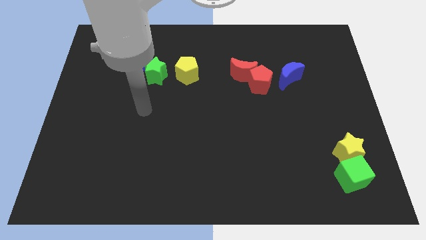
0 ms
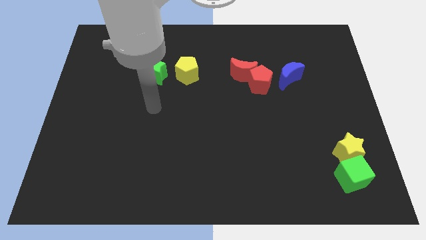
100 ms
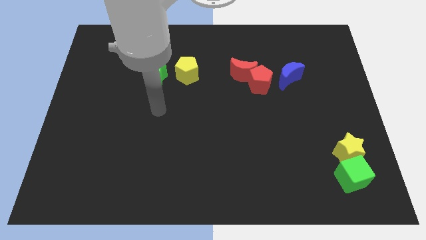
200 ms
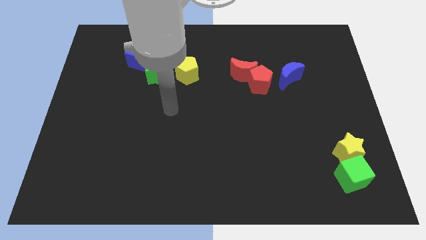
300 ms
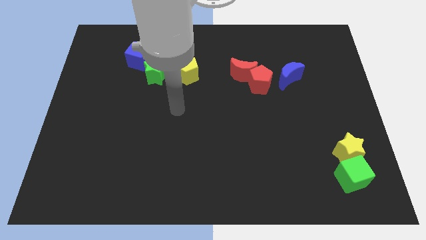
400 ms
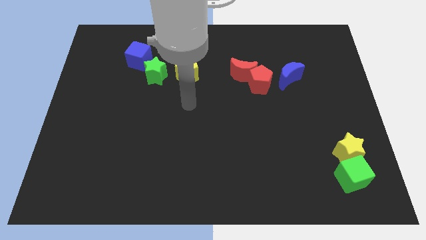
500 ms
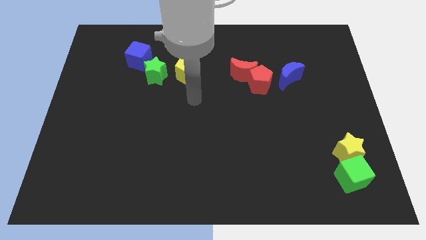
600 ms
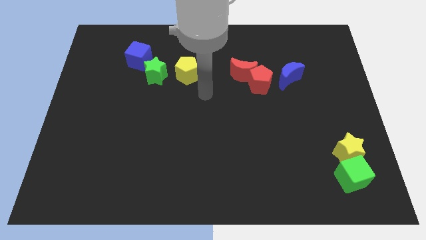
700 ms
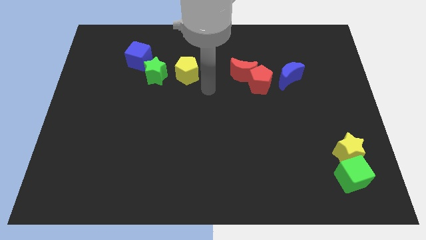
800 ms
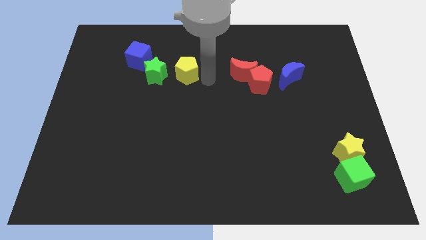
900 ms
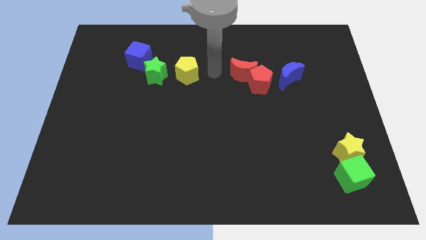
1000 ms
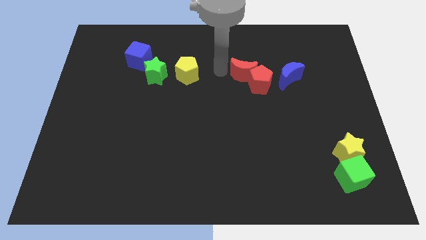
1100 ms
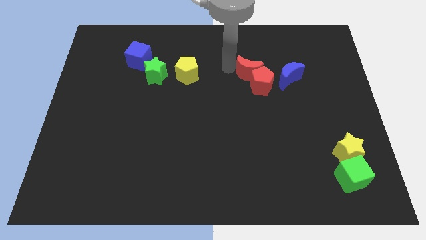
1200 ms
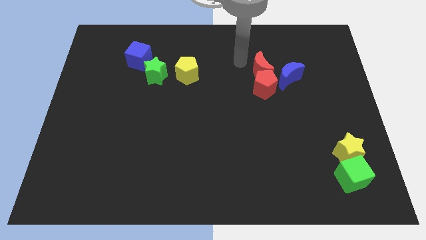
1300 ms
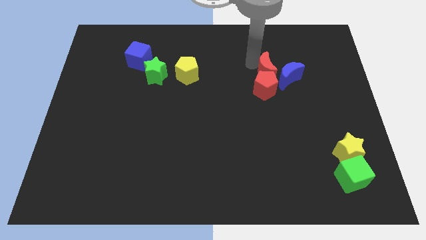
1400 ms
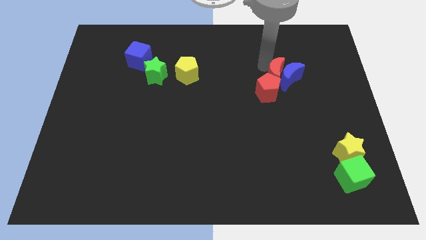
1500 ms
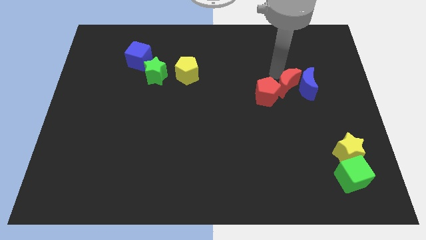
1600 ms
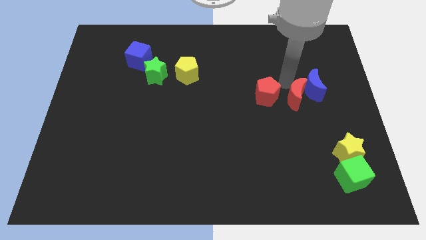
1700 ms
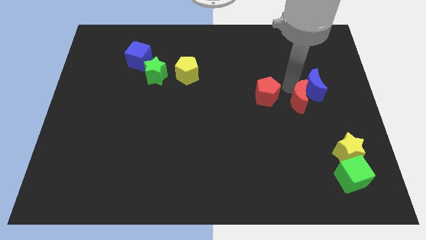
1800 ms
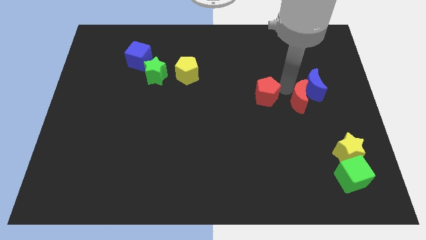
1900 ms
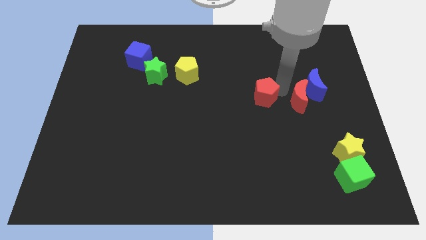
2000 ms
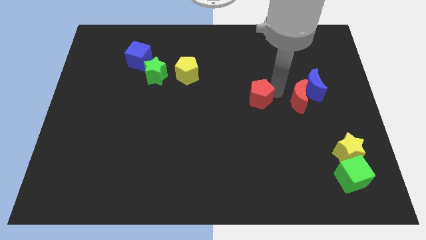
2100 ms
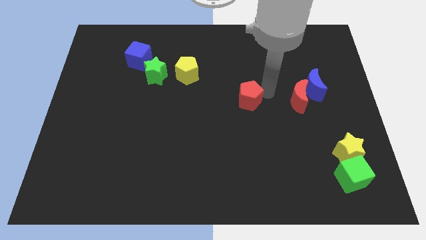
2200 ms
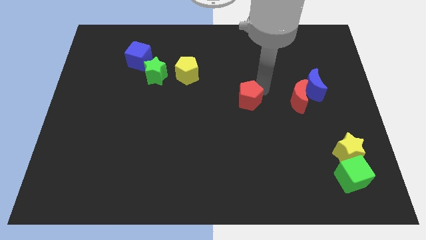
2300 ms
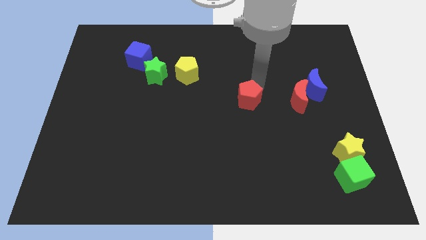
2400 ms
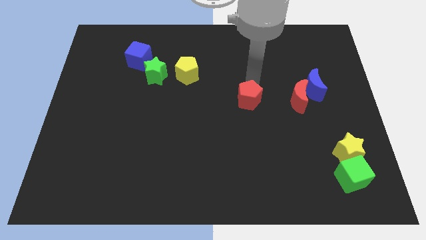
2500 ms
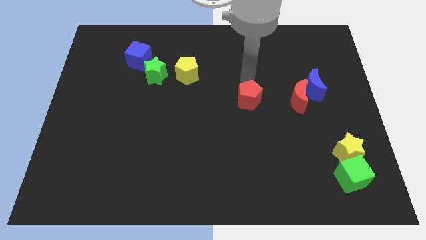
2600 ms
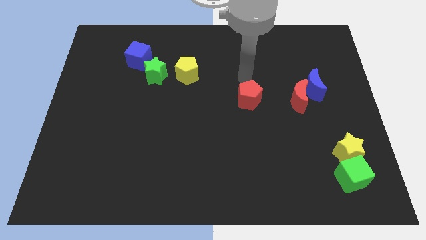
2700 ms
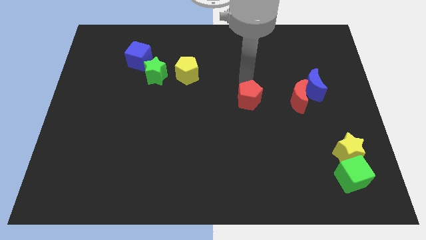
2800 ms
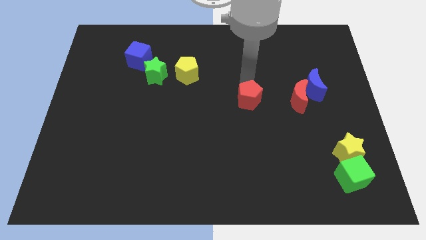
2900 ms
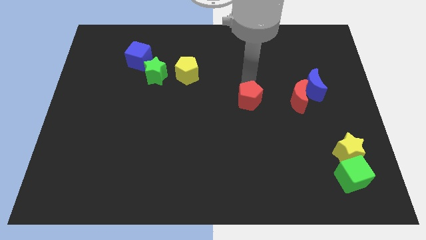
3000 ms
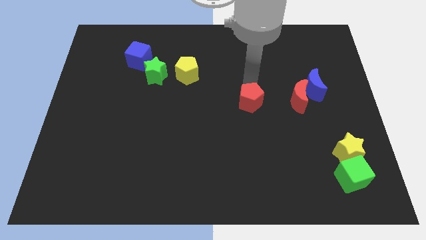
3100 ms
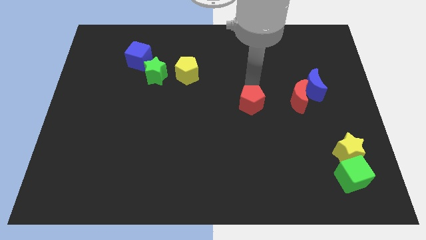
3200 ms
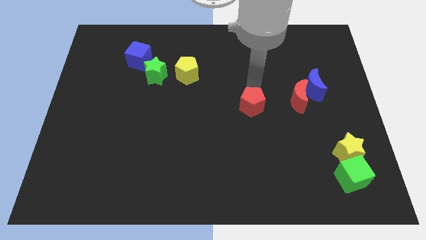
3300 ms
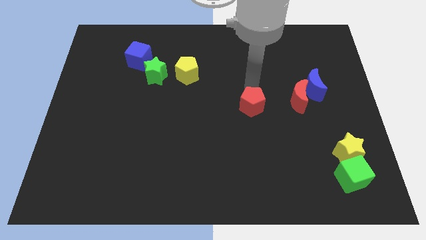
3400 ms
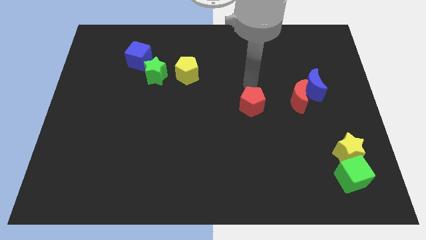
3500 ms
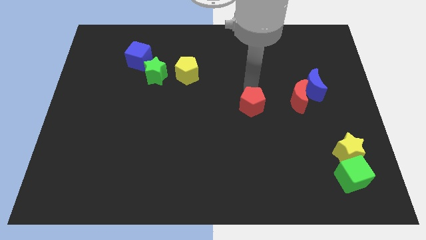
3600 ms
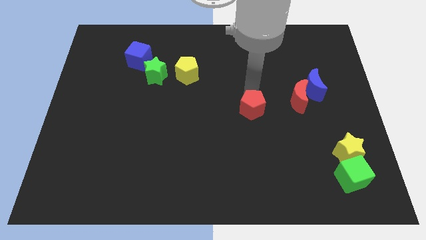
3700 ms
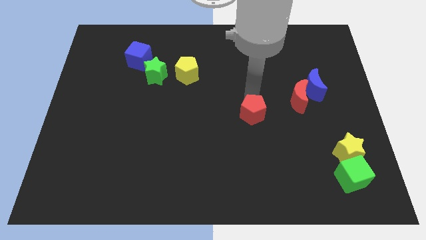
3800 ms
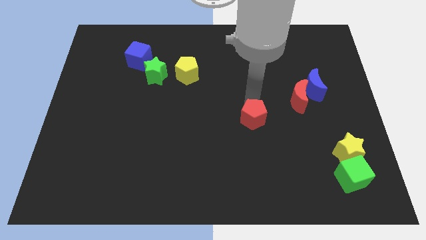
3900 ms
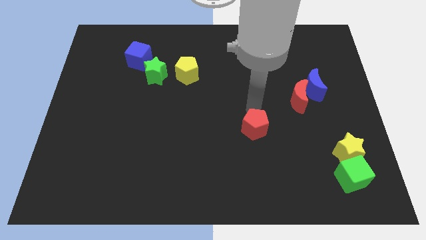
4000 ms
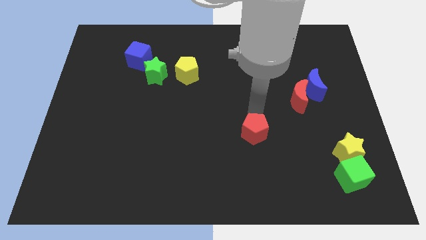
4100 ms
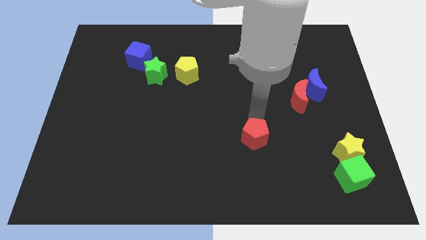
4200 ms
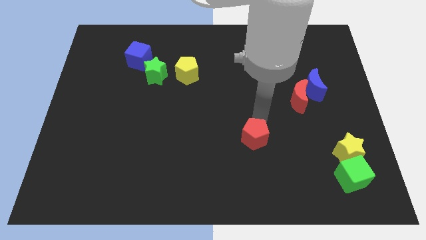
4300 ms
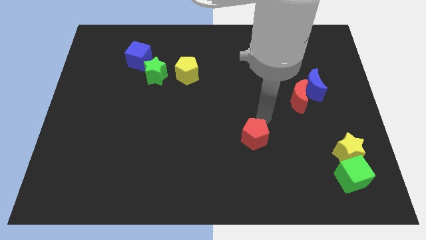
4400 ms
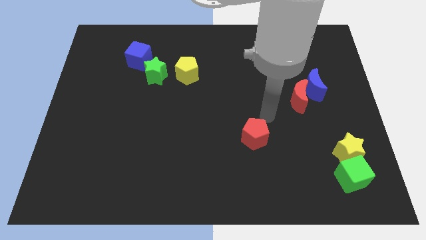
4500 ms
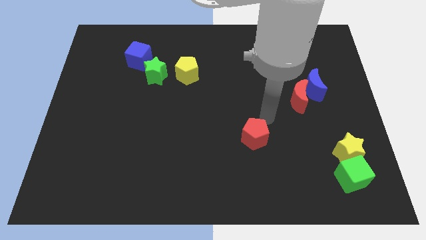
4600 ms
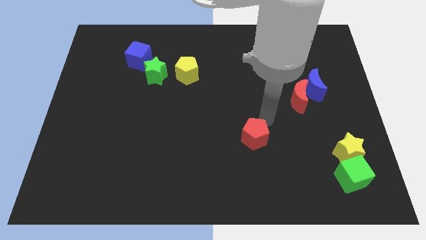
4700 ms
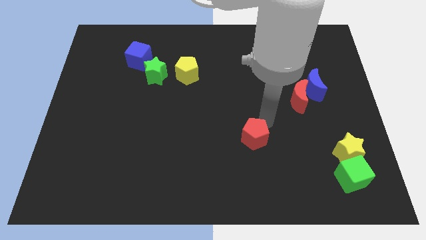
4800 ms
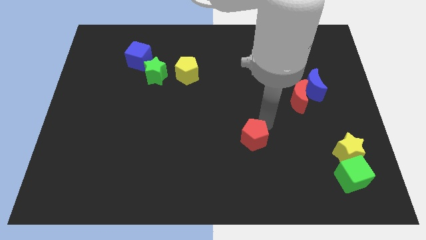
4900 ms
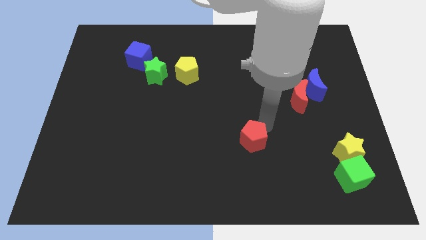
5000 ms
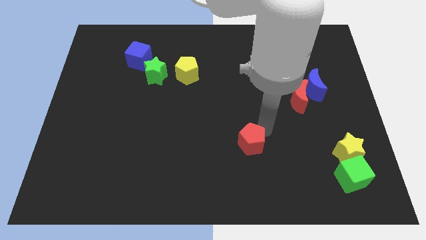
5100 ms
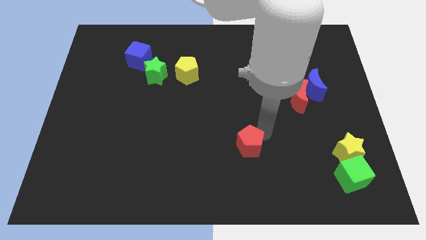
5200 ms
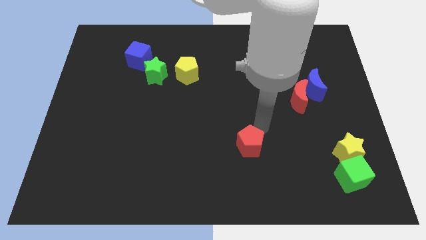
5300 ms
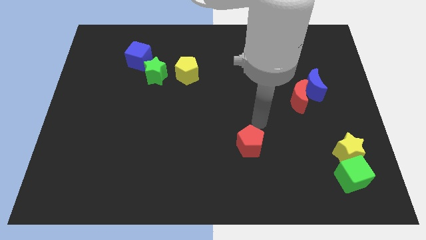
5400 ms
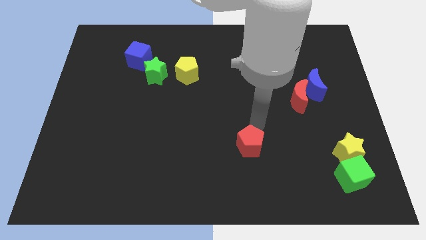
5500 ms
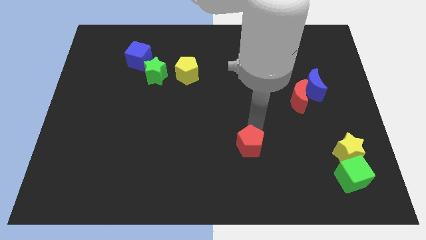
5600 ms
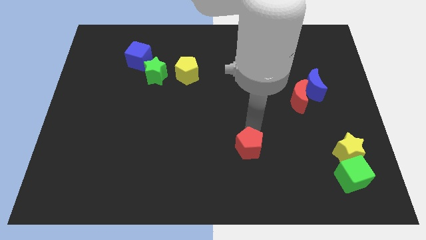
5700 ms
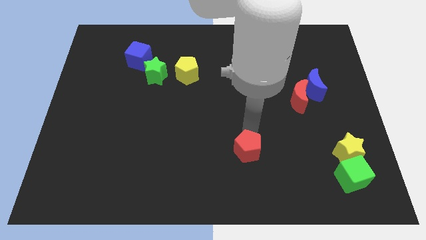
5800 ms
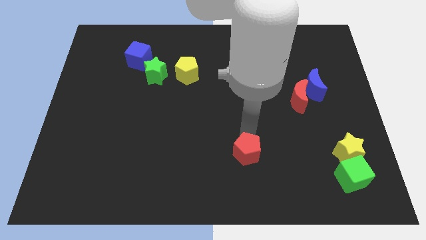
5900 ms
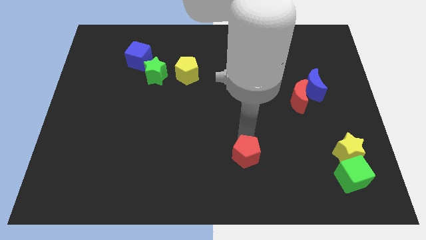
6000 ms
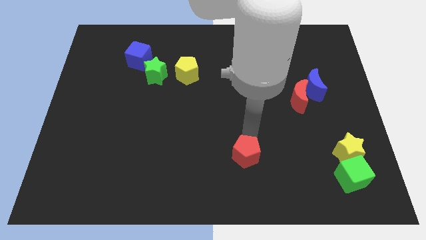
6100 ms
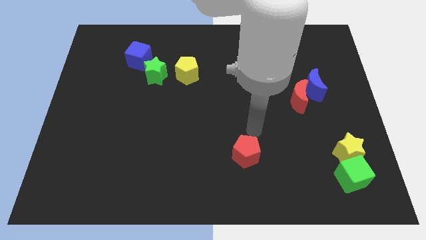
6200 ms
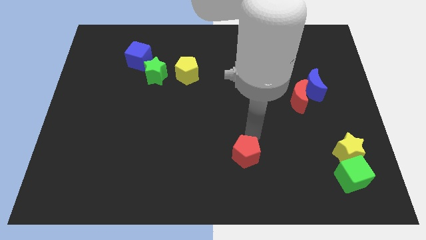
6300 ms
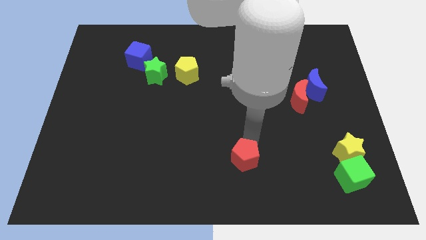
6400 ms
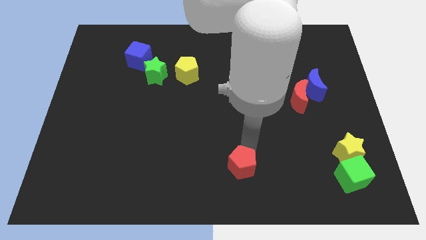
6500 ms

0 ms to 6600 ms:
move the red pentagon to the bottom
